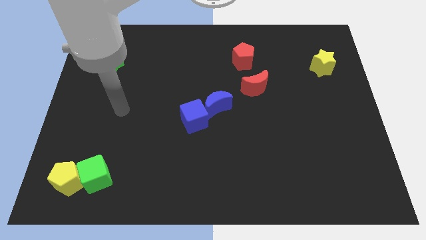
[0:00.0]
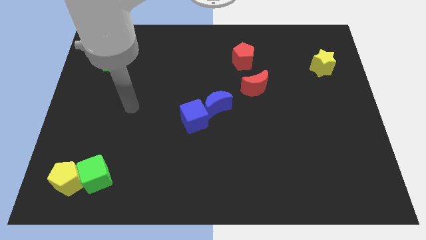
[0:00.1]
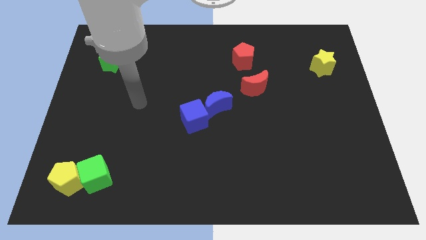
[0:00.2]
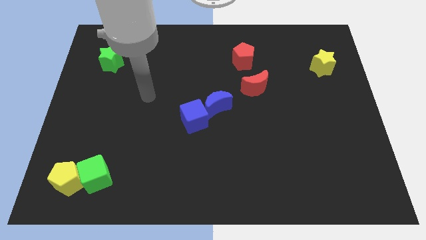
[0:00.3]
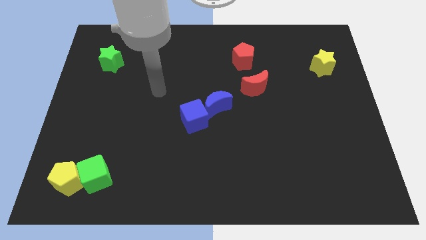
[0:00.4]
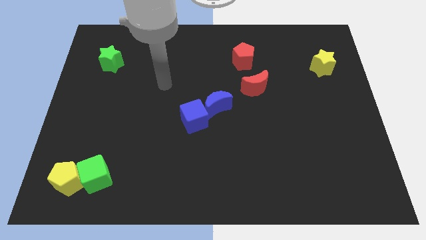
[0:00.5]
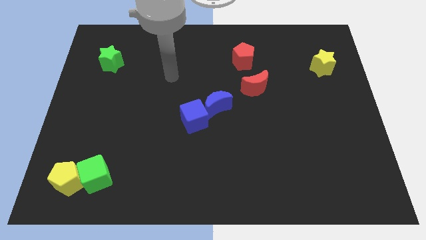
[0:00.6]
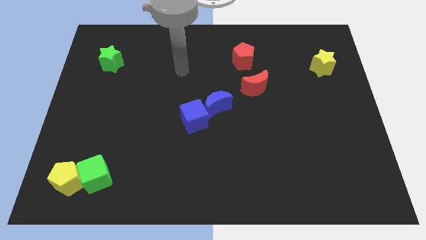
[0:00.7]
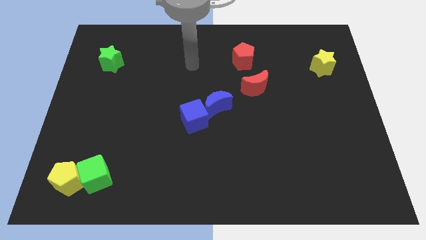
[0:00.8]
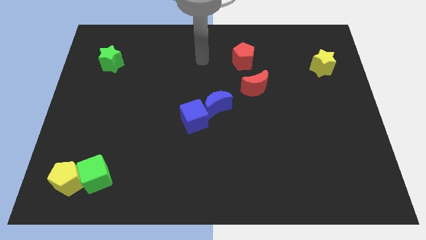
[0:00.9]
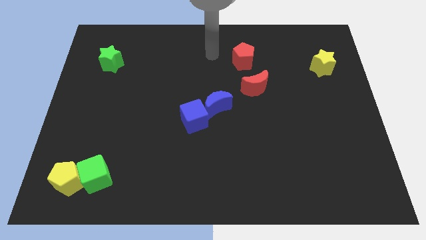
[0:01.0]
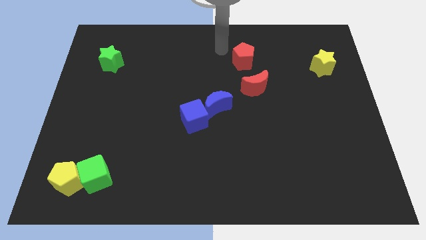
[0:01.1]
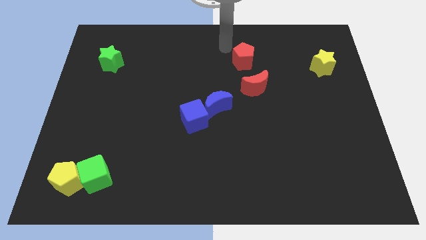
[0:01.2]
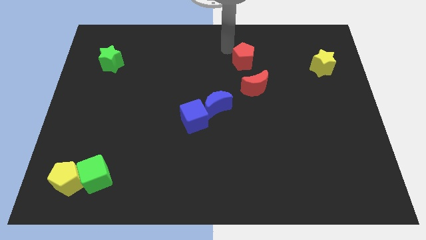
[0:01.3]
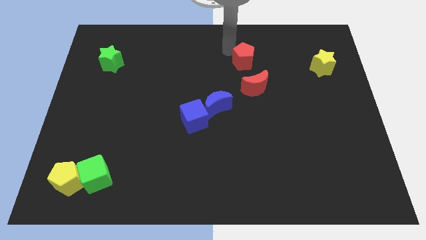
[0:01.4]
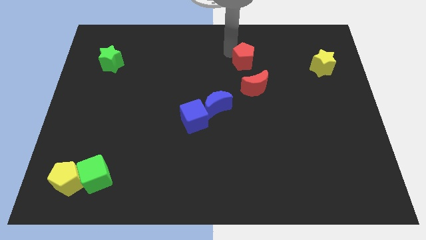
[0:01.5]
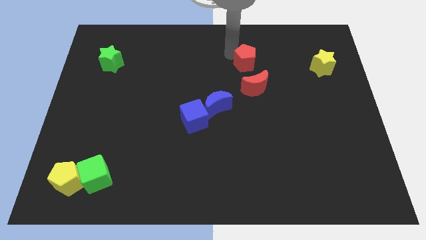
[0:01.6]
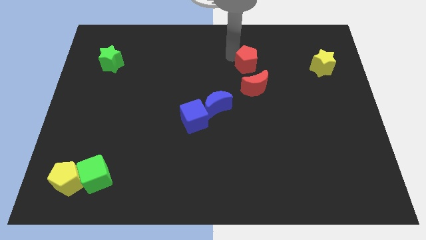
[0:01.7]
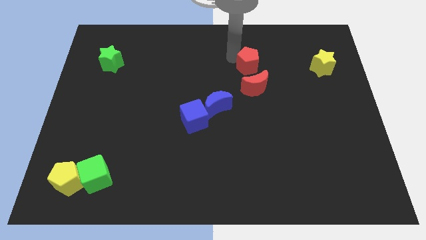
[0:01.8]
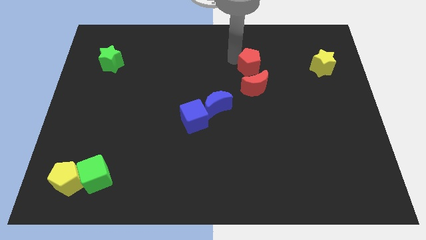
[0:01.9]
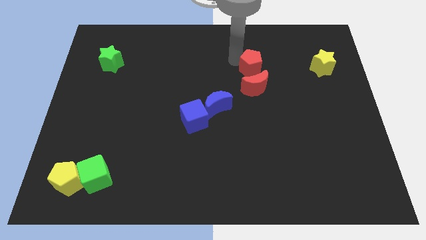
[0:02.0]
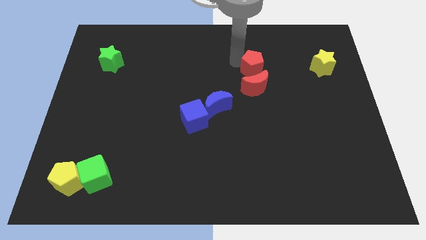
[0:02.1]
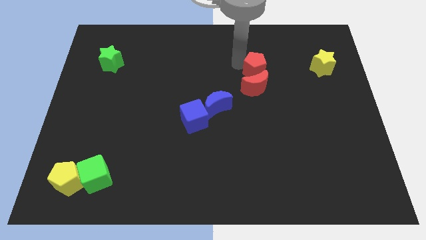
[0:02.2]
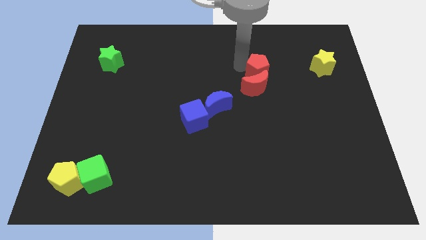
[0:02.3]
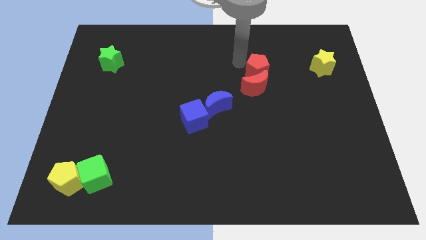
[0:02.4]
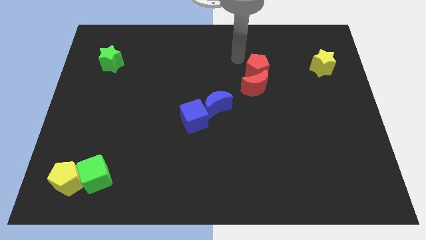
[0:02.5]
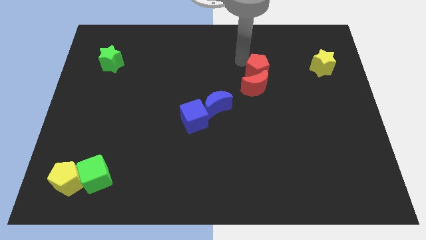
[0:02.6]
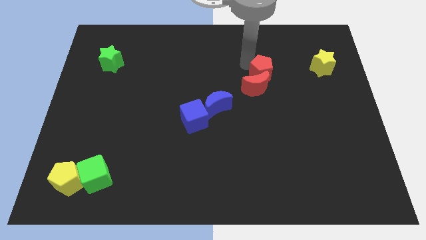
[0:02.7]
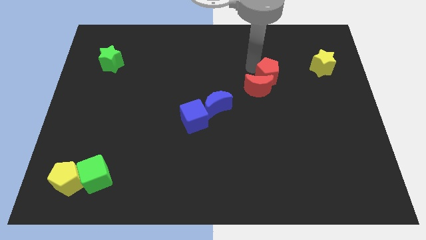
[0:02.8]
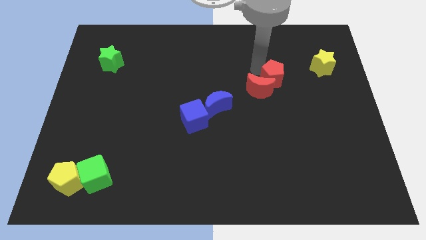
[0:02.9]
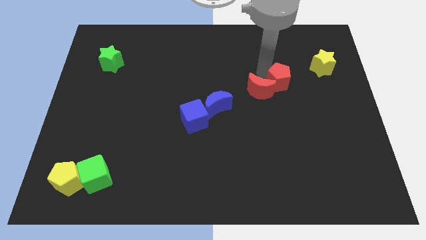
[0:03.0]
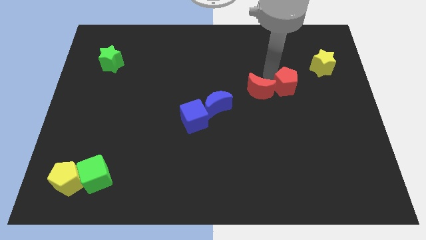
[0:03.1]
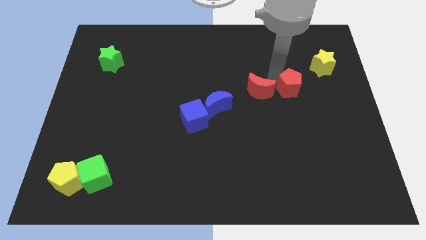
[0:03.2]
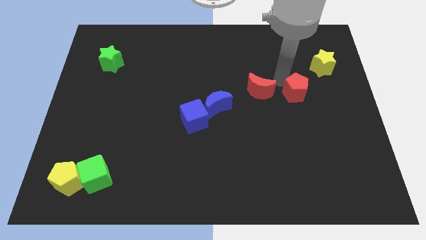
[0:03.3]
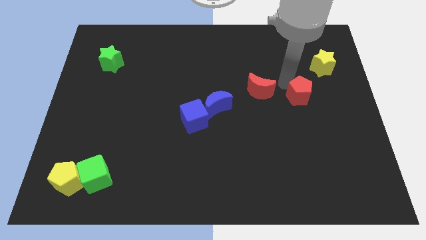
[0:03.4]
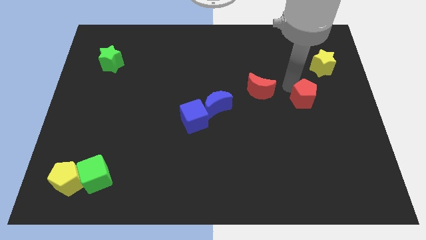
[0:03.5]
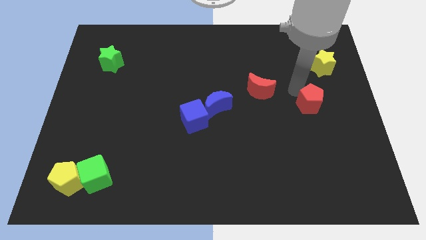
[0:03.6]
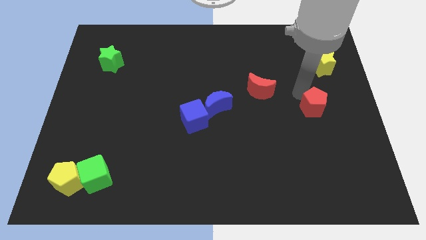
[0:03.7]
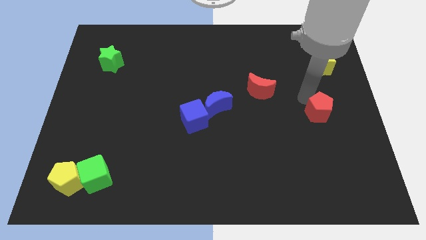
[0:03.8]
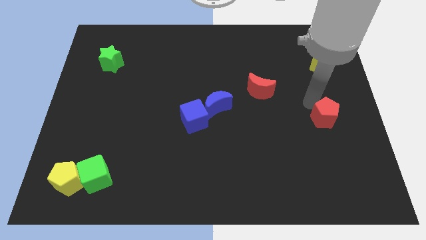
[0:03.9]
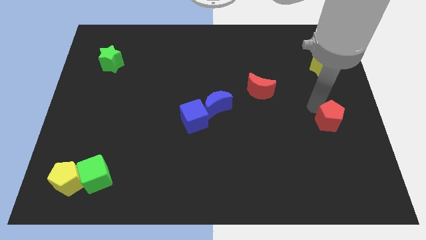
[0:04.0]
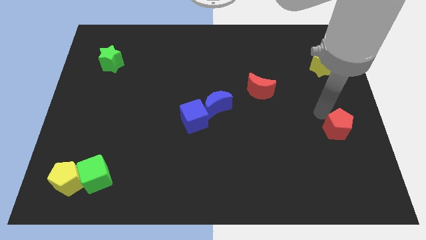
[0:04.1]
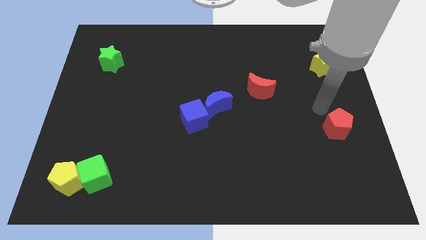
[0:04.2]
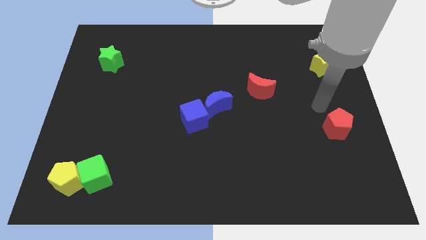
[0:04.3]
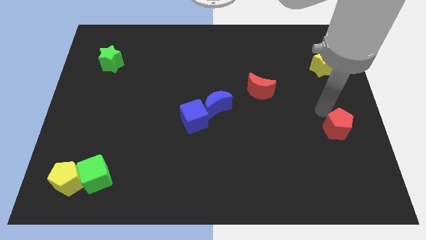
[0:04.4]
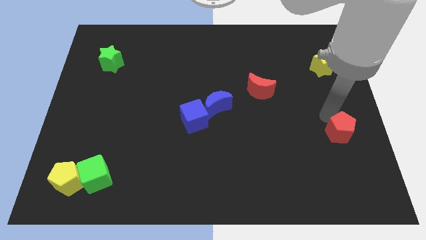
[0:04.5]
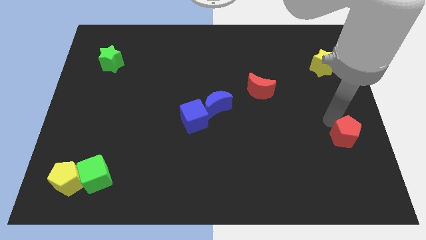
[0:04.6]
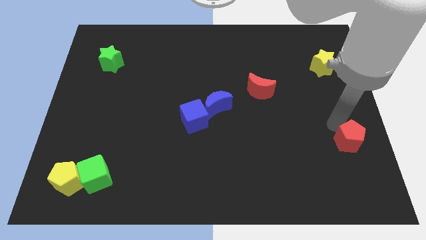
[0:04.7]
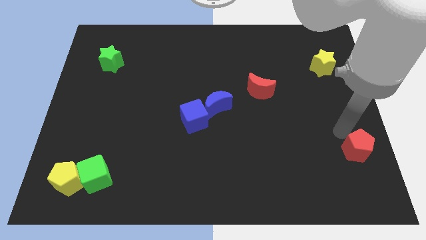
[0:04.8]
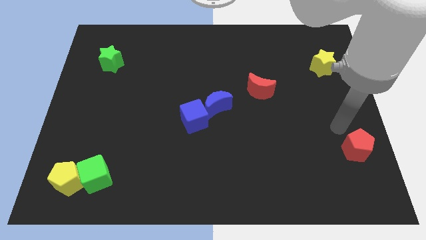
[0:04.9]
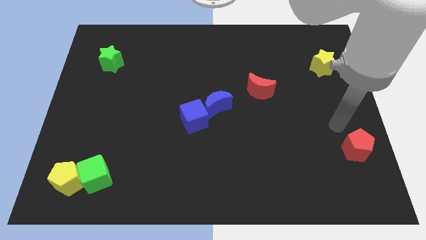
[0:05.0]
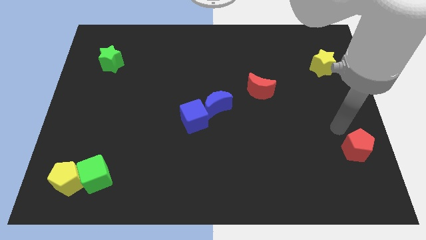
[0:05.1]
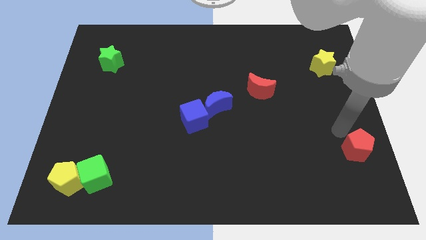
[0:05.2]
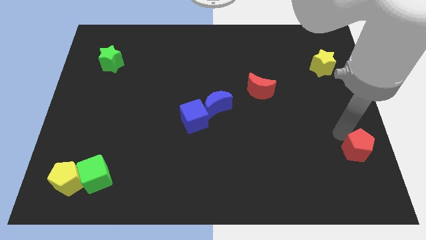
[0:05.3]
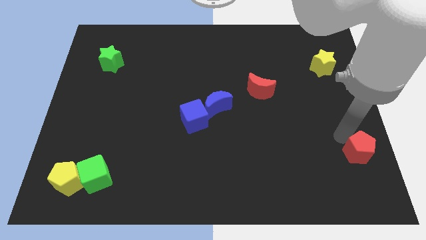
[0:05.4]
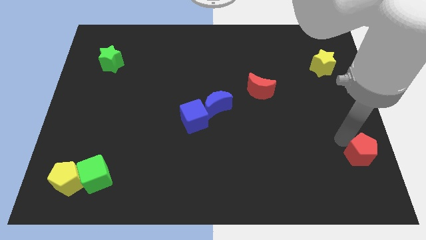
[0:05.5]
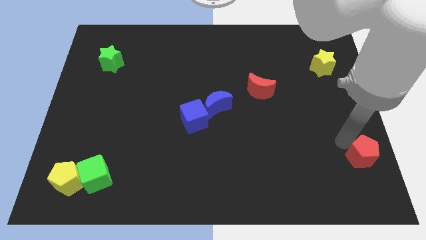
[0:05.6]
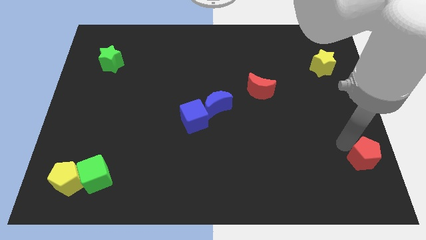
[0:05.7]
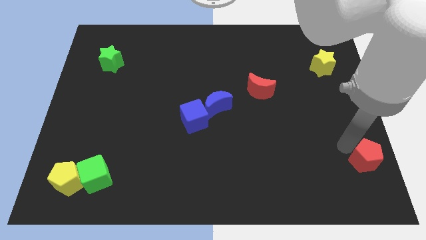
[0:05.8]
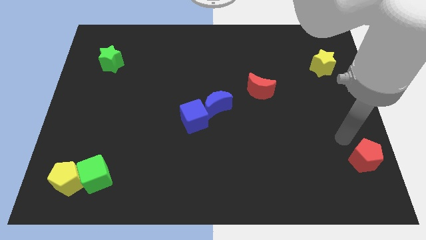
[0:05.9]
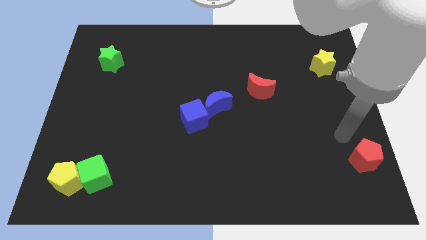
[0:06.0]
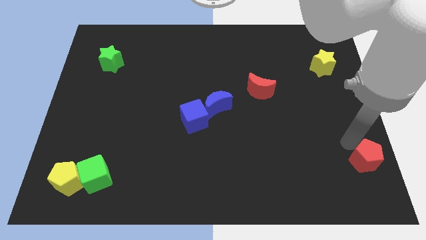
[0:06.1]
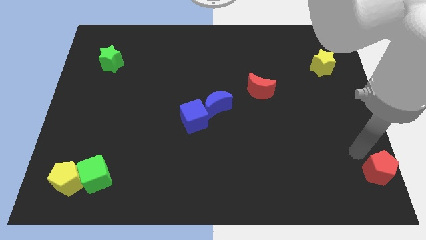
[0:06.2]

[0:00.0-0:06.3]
move the red pentagon to the bottom right

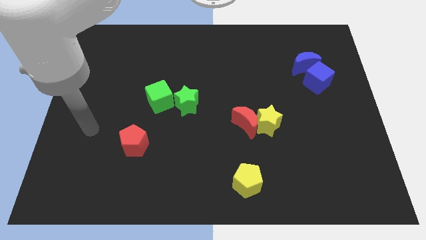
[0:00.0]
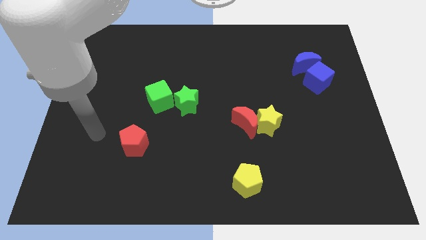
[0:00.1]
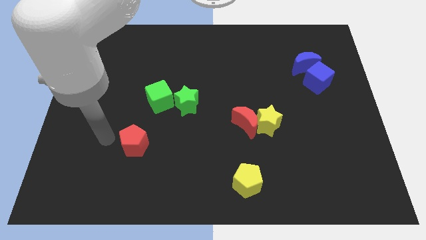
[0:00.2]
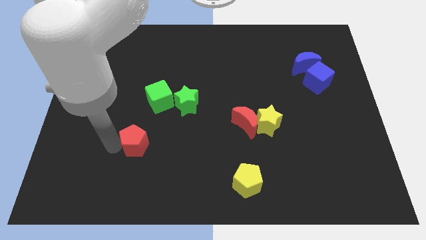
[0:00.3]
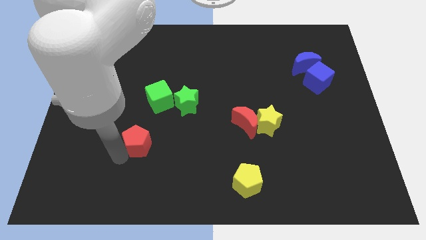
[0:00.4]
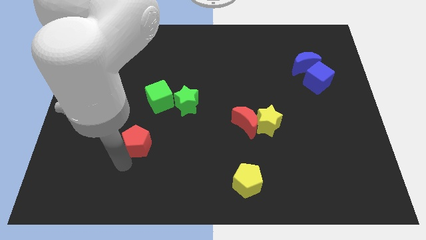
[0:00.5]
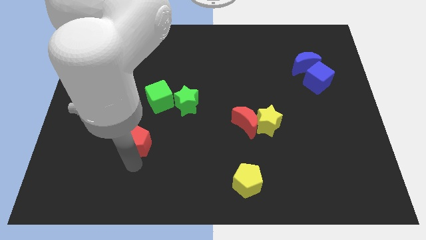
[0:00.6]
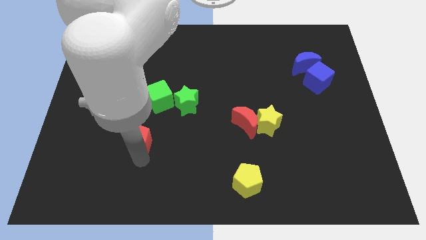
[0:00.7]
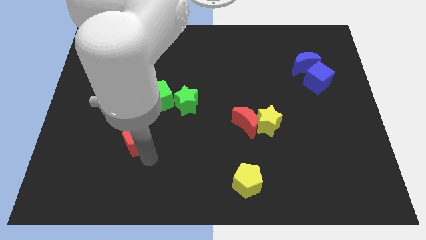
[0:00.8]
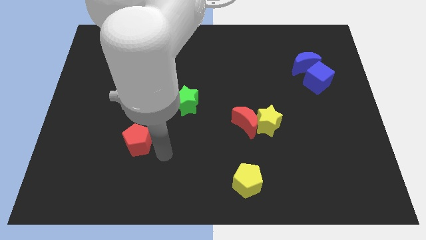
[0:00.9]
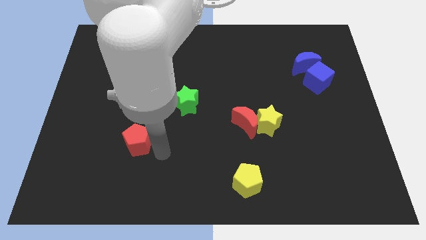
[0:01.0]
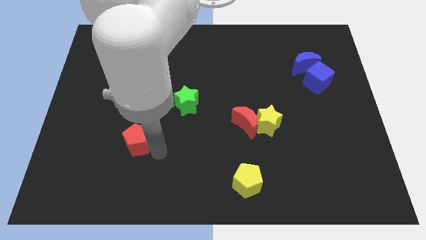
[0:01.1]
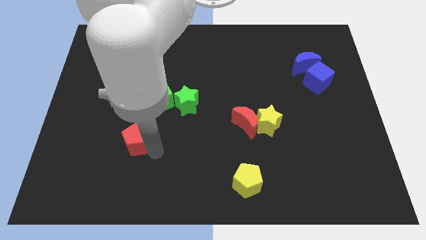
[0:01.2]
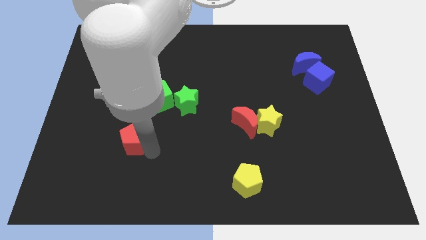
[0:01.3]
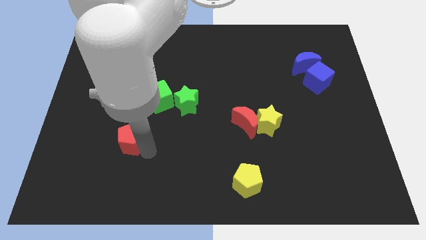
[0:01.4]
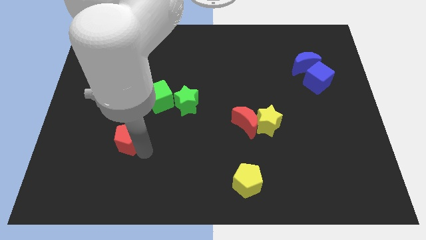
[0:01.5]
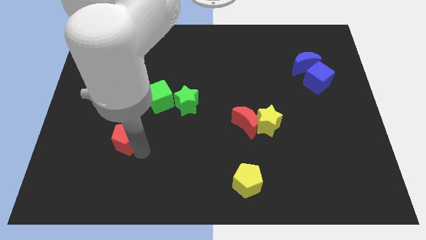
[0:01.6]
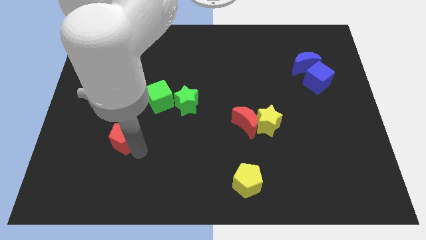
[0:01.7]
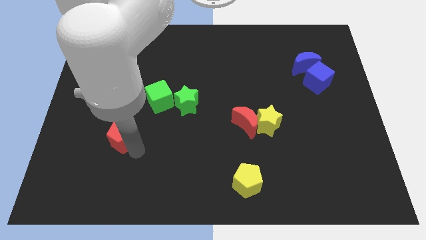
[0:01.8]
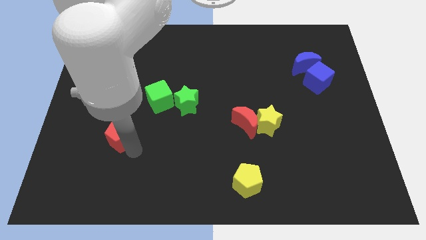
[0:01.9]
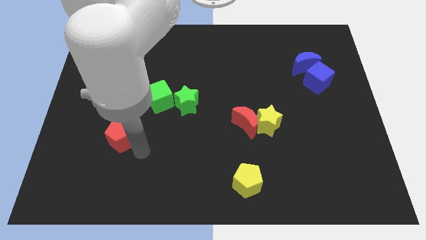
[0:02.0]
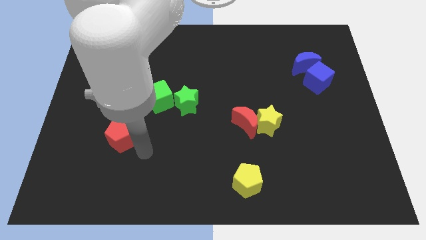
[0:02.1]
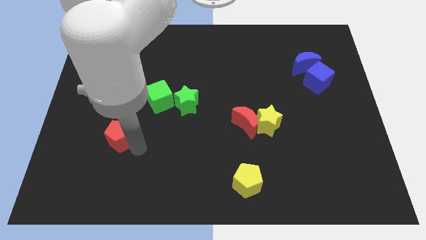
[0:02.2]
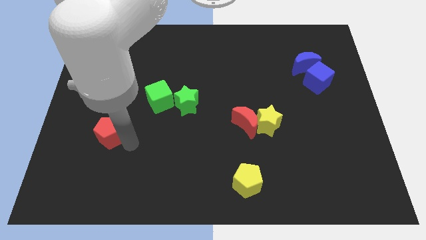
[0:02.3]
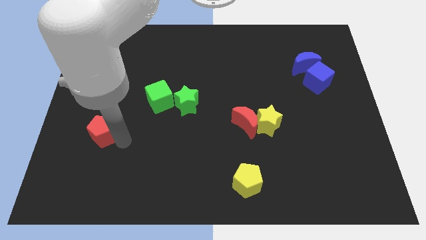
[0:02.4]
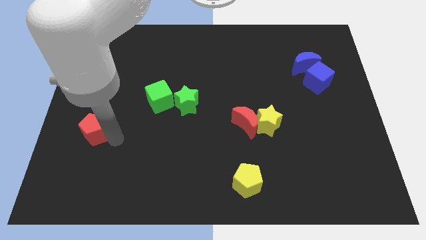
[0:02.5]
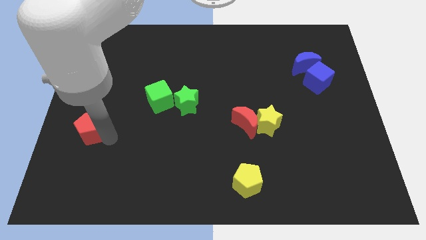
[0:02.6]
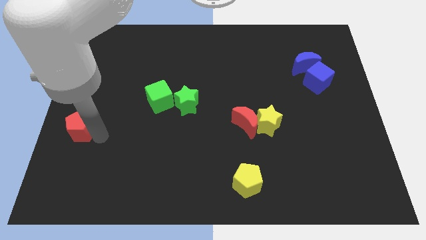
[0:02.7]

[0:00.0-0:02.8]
move the red pentagon to the left side
